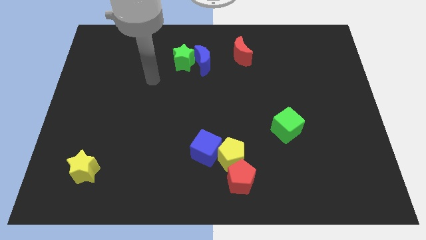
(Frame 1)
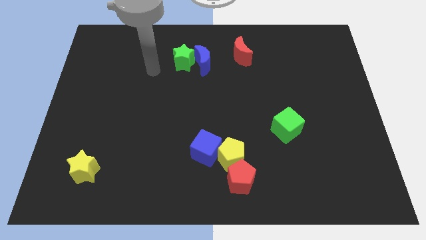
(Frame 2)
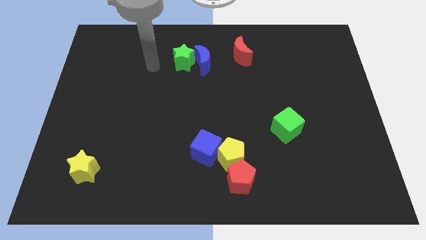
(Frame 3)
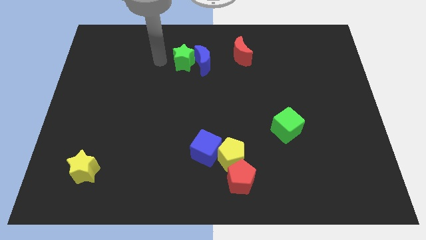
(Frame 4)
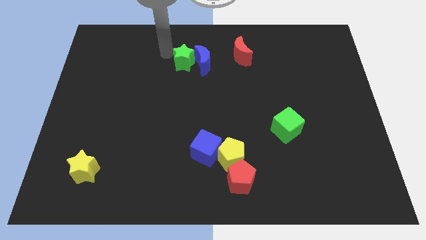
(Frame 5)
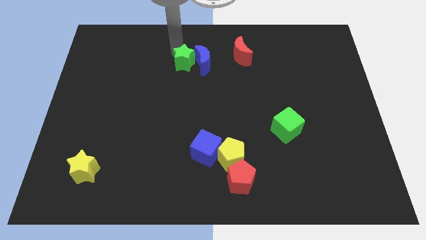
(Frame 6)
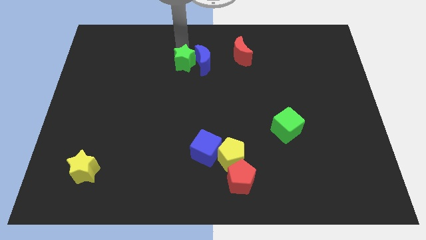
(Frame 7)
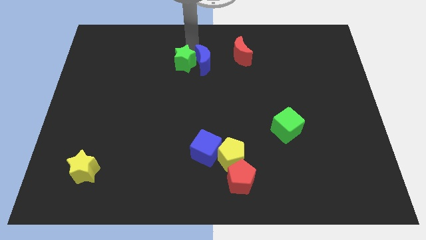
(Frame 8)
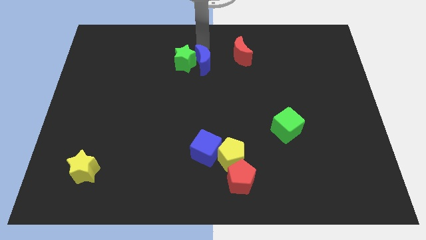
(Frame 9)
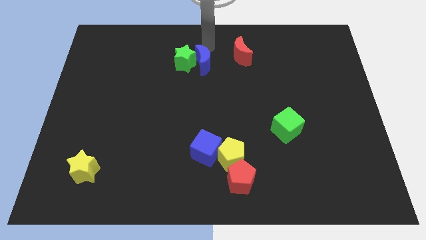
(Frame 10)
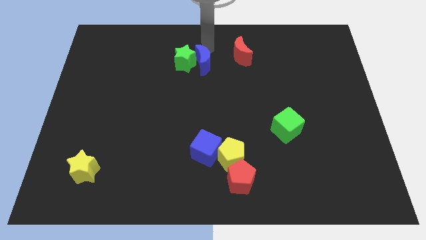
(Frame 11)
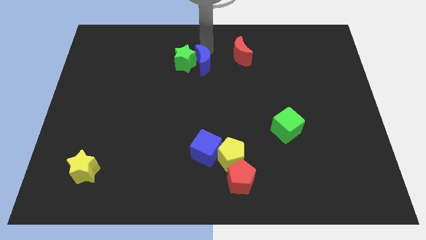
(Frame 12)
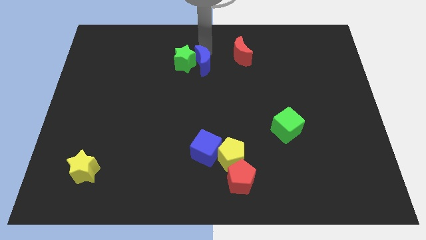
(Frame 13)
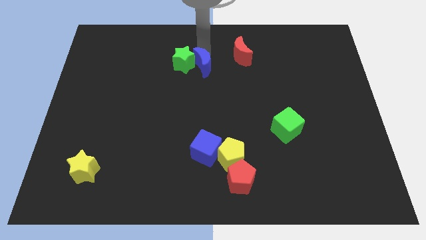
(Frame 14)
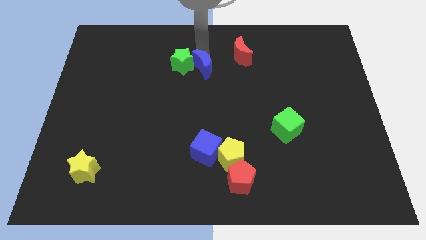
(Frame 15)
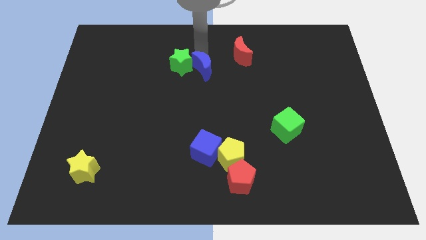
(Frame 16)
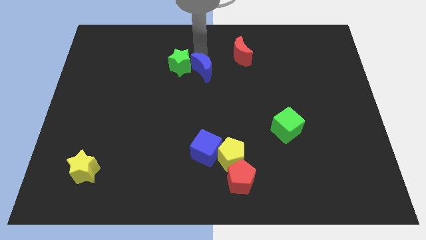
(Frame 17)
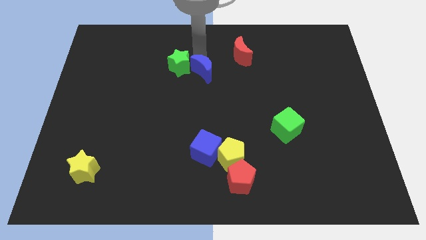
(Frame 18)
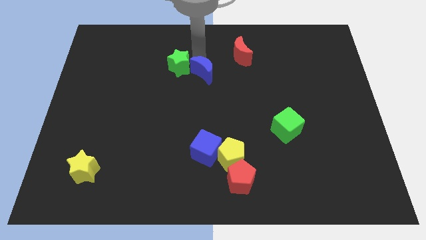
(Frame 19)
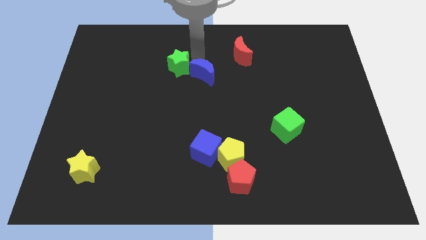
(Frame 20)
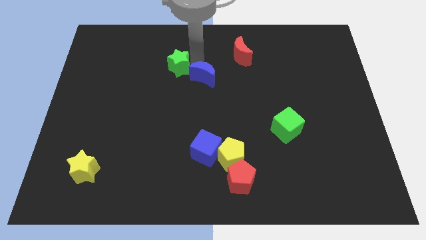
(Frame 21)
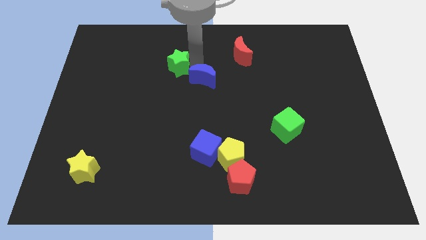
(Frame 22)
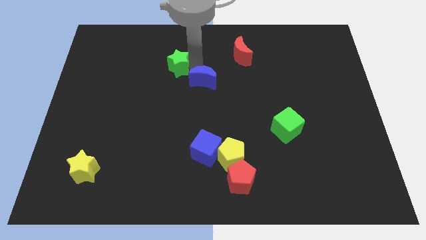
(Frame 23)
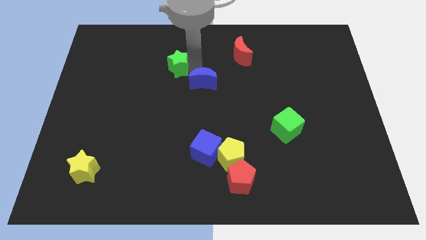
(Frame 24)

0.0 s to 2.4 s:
slightly slide the blue moon downwards

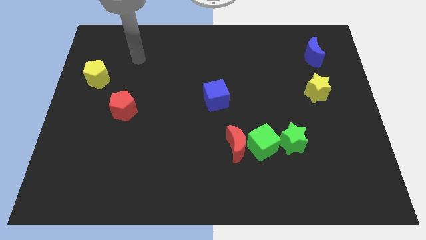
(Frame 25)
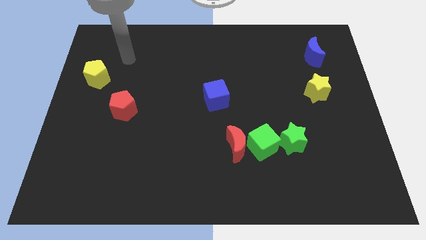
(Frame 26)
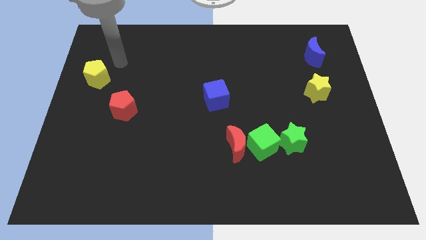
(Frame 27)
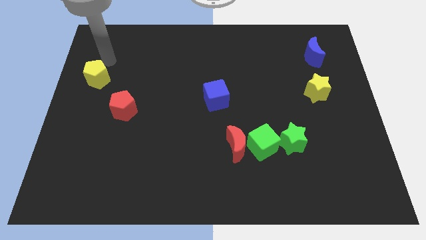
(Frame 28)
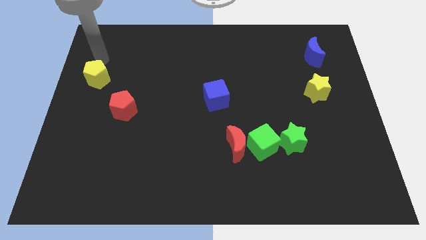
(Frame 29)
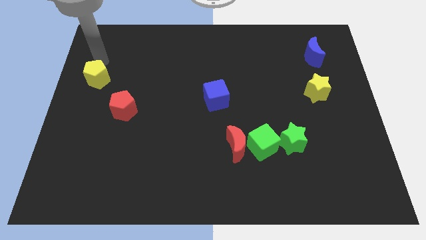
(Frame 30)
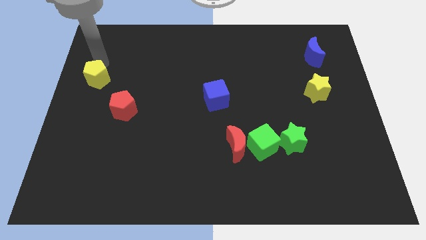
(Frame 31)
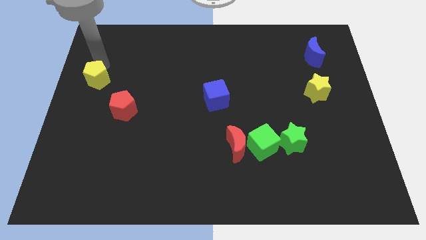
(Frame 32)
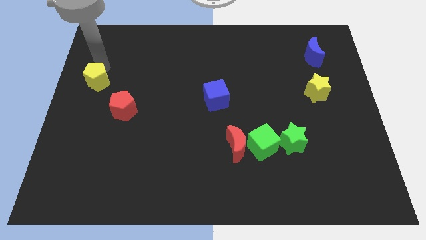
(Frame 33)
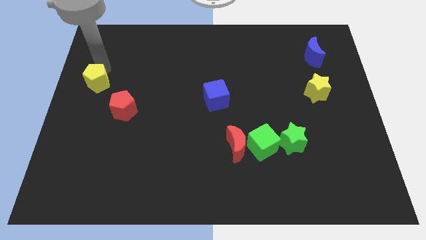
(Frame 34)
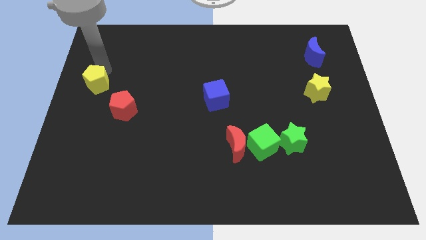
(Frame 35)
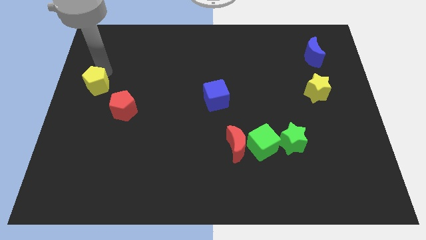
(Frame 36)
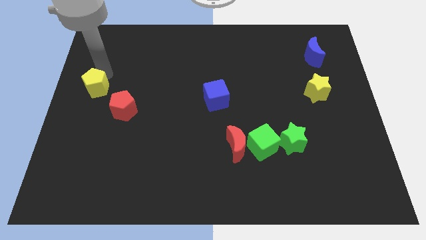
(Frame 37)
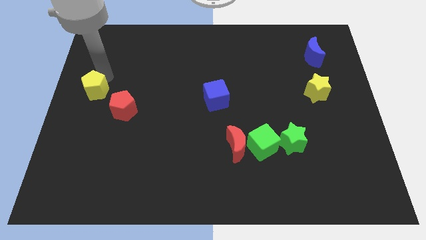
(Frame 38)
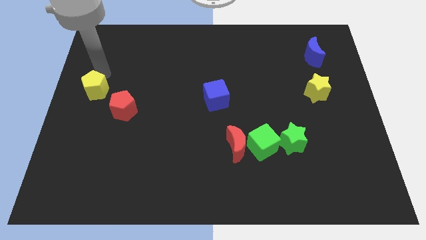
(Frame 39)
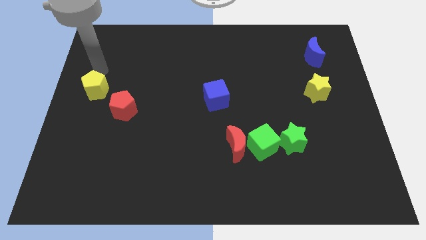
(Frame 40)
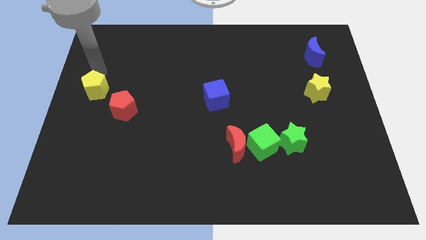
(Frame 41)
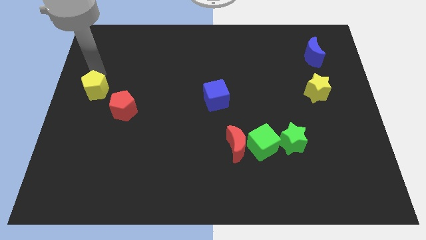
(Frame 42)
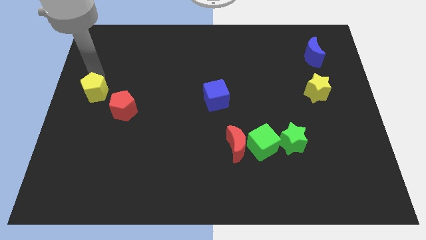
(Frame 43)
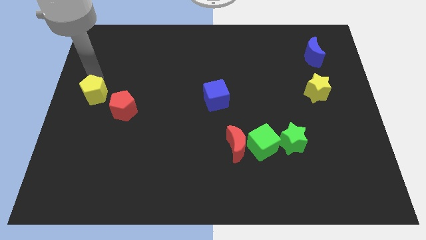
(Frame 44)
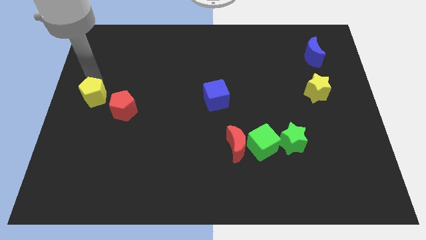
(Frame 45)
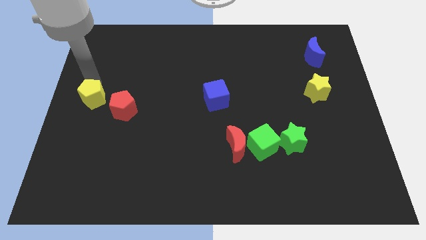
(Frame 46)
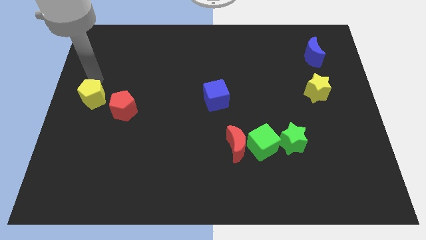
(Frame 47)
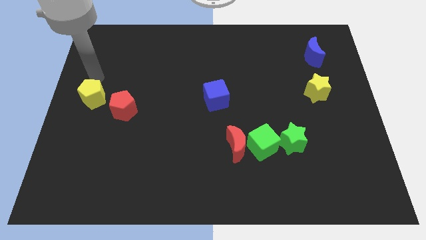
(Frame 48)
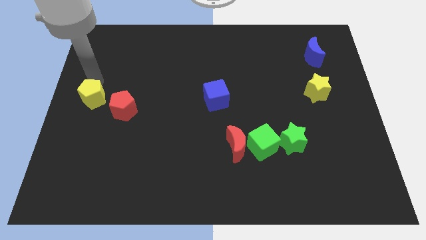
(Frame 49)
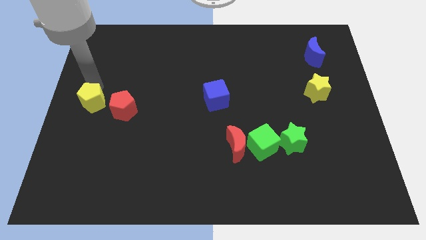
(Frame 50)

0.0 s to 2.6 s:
slide the yellow pentagon down a little bit

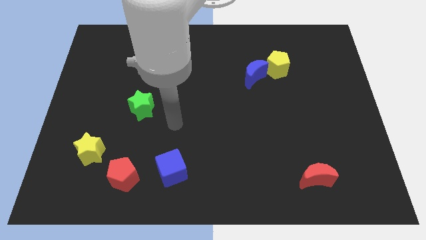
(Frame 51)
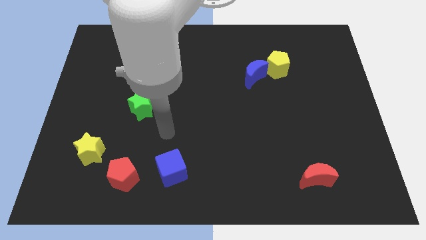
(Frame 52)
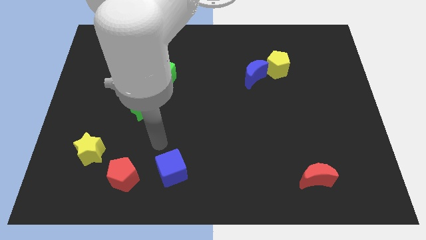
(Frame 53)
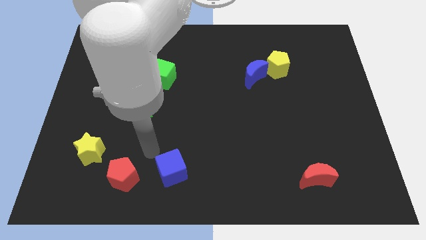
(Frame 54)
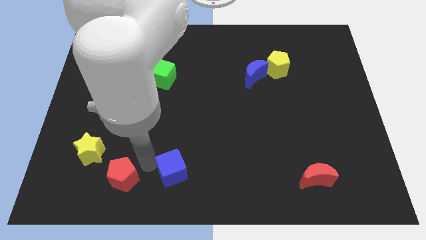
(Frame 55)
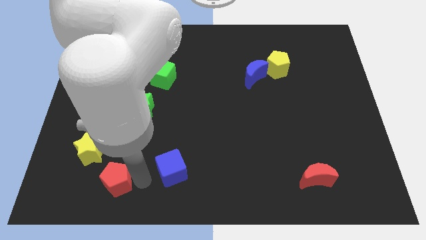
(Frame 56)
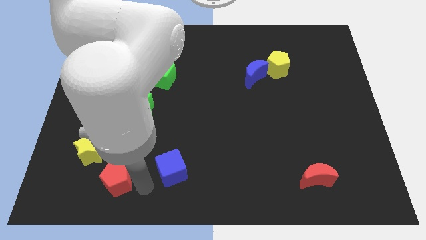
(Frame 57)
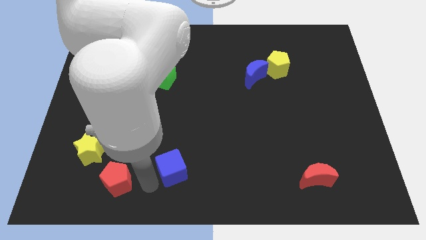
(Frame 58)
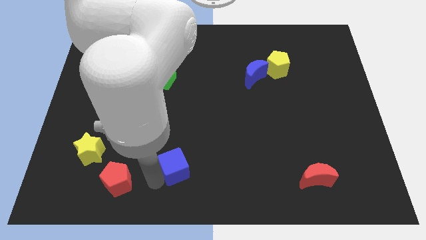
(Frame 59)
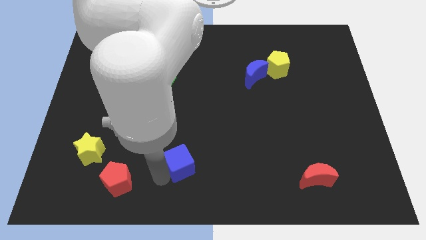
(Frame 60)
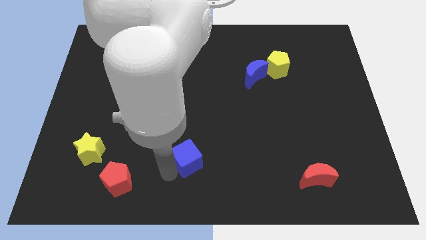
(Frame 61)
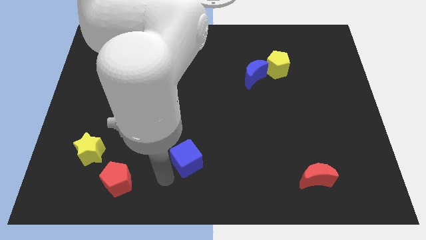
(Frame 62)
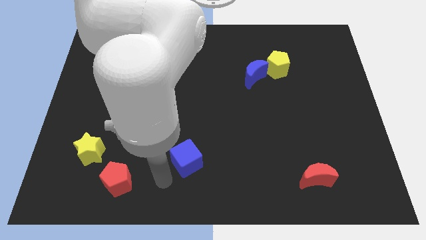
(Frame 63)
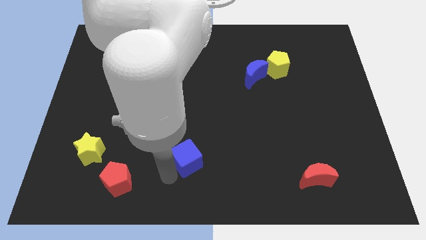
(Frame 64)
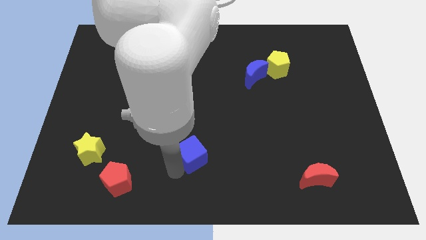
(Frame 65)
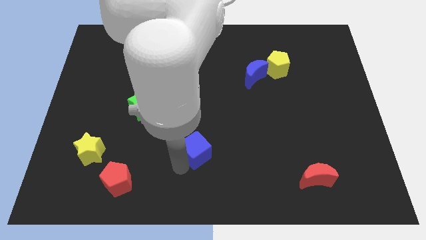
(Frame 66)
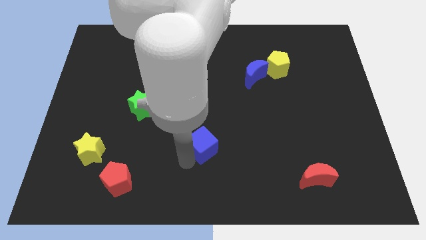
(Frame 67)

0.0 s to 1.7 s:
slightly move the blue cube up and right

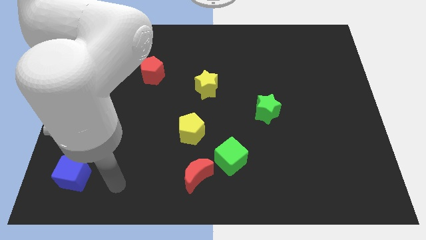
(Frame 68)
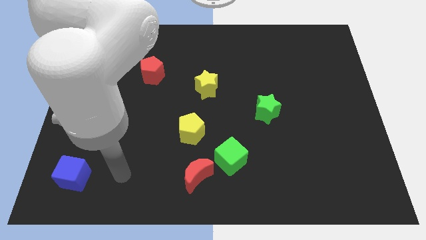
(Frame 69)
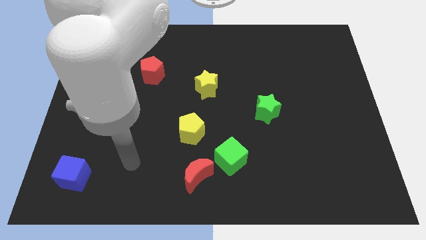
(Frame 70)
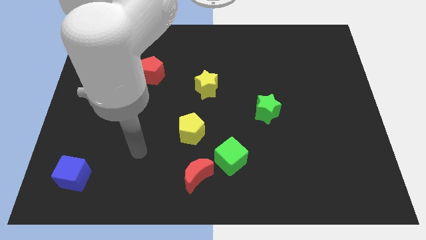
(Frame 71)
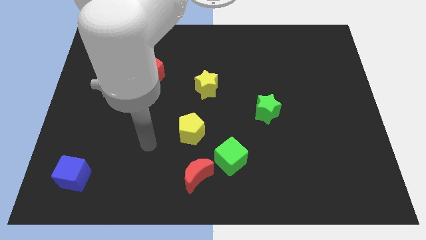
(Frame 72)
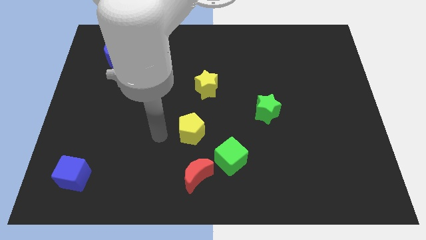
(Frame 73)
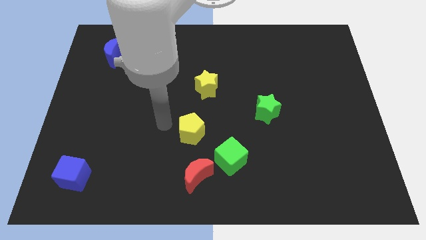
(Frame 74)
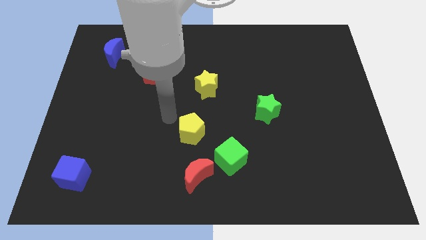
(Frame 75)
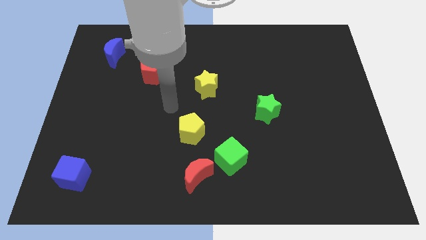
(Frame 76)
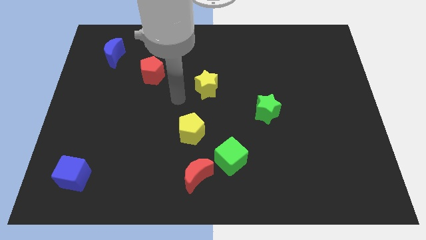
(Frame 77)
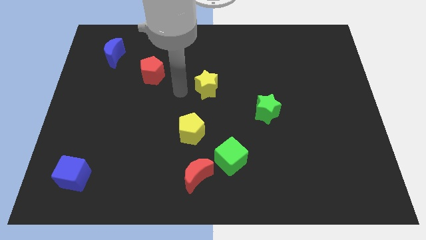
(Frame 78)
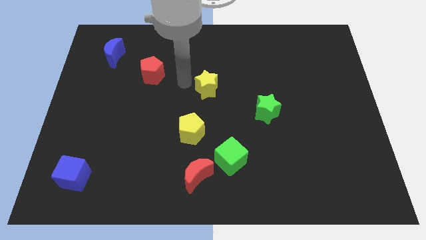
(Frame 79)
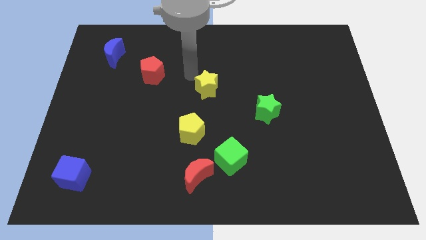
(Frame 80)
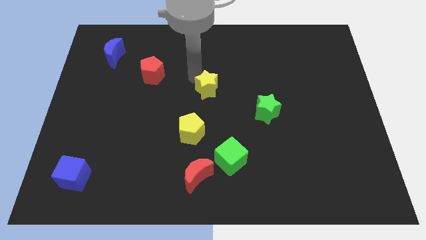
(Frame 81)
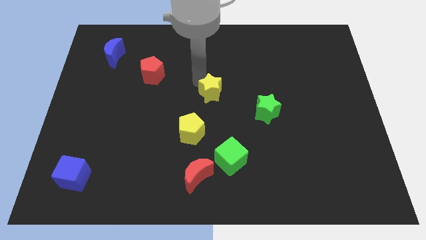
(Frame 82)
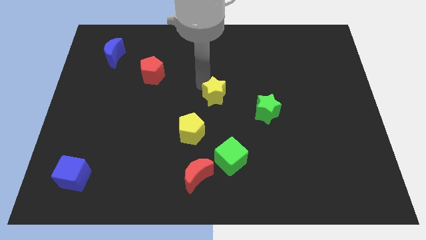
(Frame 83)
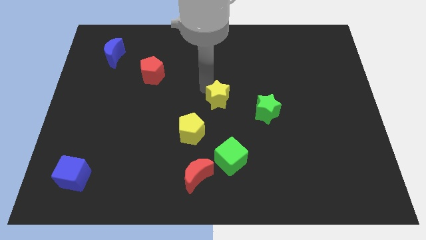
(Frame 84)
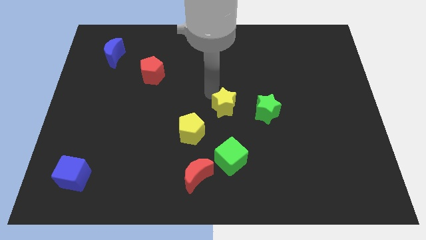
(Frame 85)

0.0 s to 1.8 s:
slide the yellow star diagonally down and right a bit

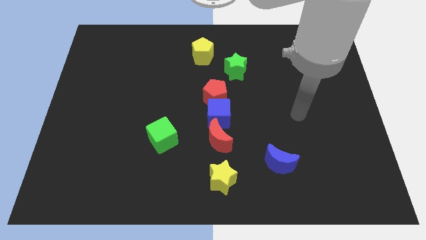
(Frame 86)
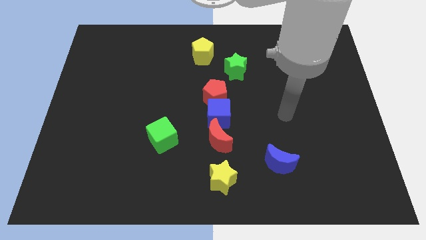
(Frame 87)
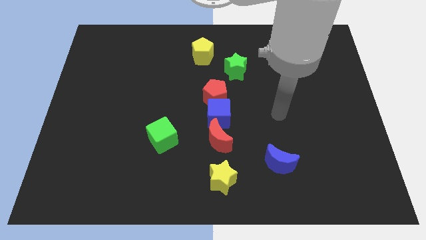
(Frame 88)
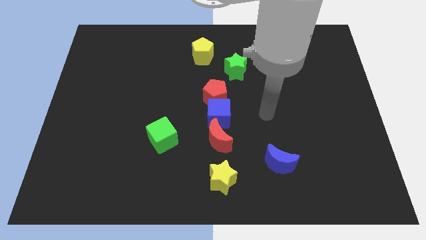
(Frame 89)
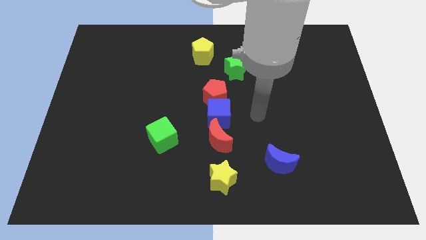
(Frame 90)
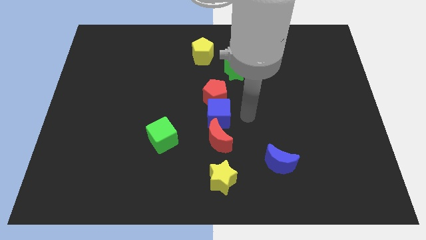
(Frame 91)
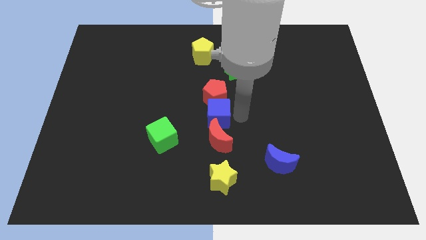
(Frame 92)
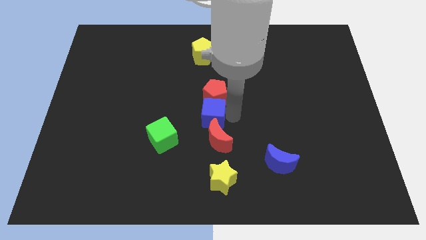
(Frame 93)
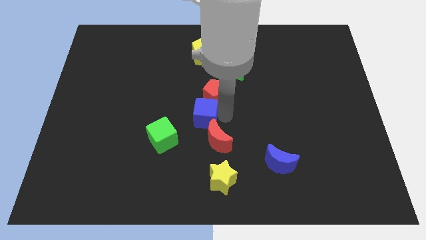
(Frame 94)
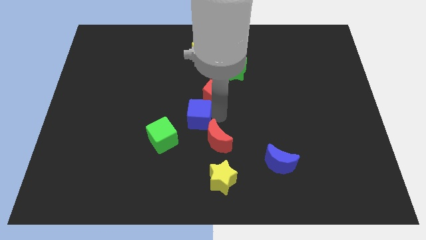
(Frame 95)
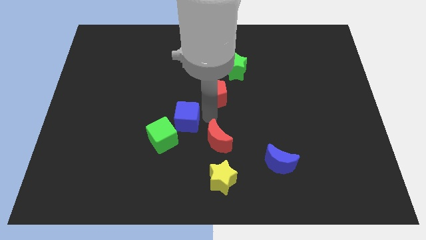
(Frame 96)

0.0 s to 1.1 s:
move the blue cube a little bit left
